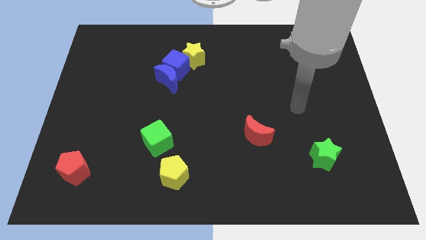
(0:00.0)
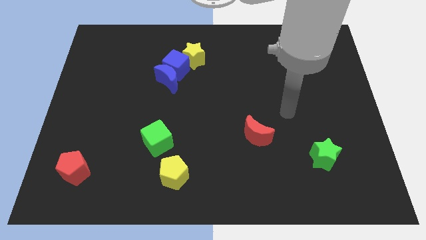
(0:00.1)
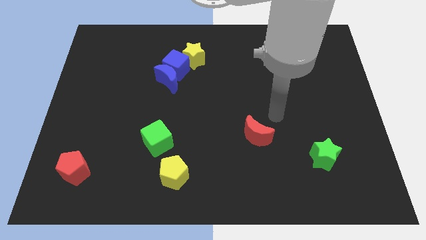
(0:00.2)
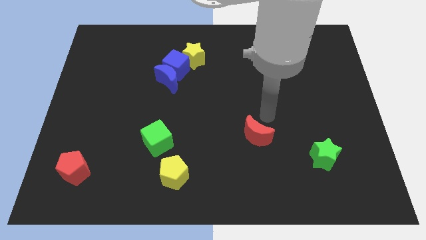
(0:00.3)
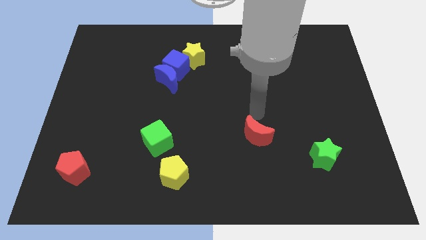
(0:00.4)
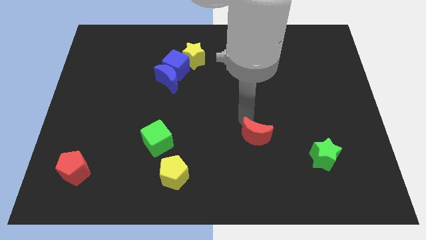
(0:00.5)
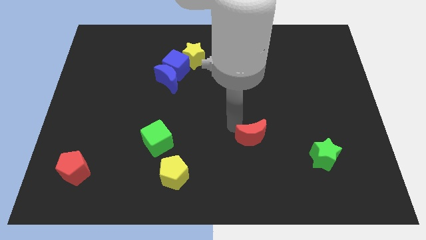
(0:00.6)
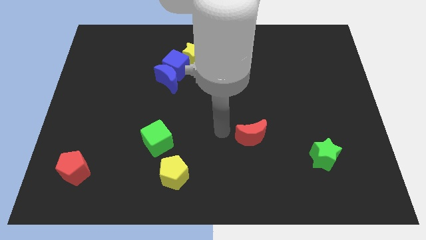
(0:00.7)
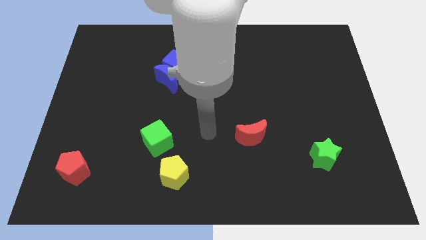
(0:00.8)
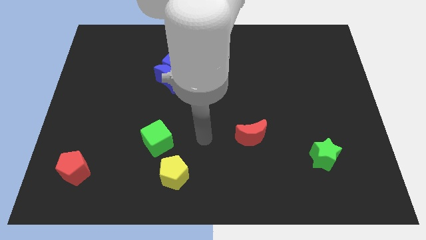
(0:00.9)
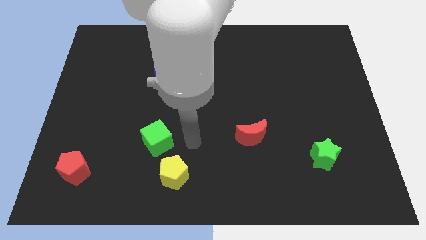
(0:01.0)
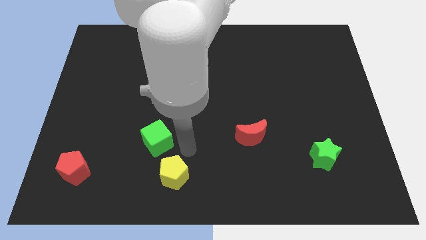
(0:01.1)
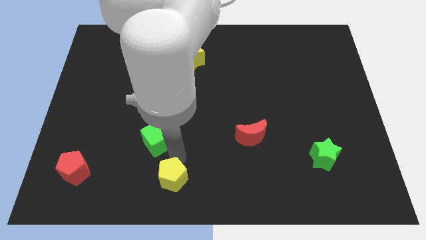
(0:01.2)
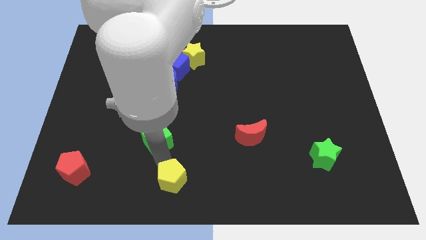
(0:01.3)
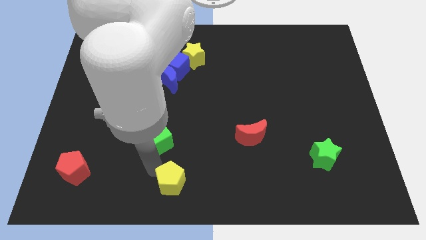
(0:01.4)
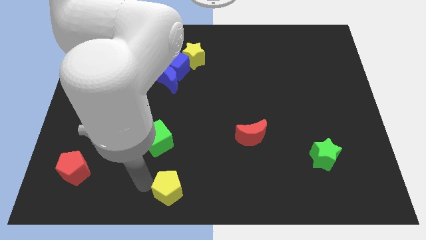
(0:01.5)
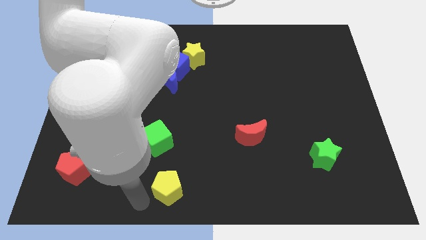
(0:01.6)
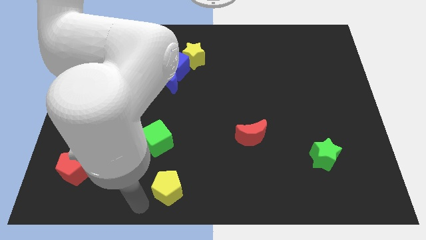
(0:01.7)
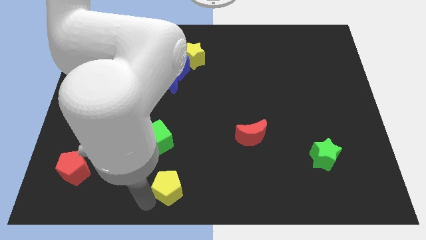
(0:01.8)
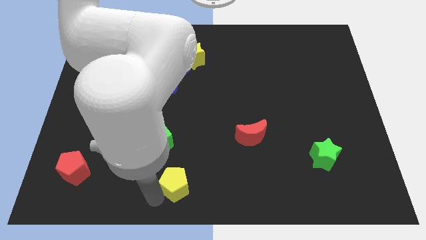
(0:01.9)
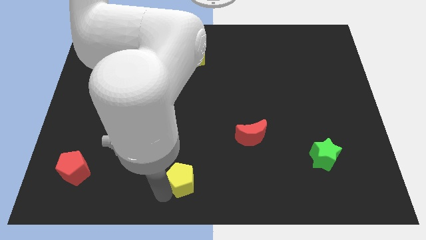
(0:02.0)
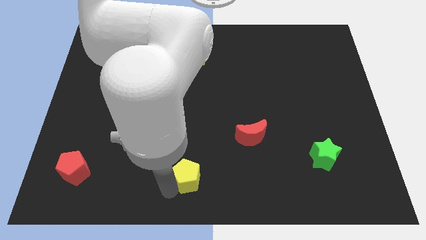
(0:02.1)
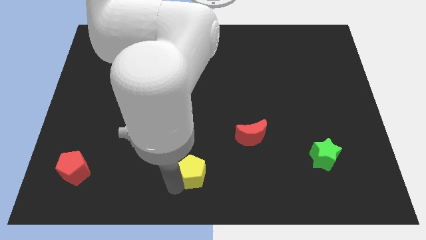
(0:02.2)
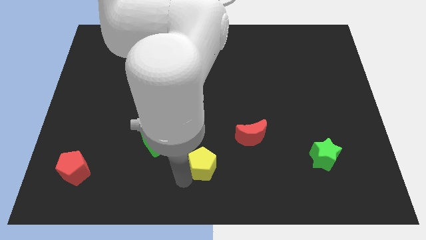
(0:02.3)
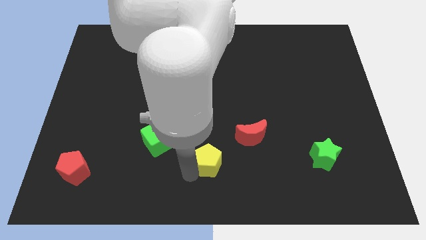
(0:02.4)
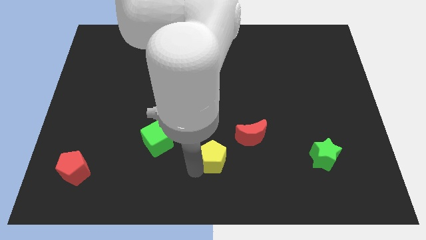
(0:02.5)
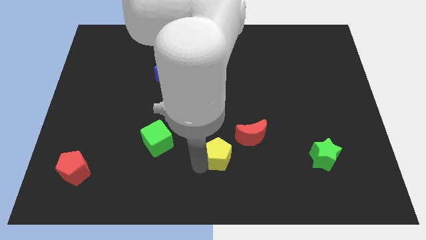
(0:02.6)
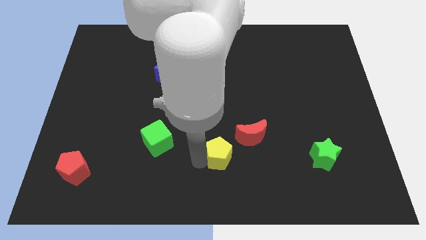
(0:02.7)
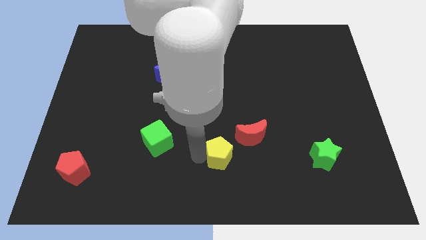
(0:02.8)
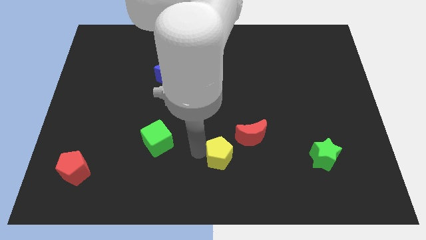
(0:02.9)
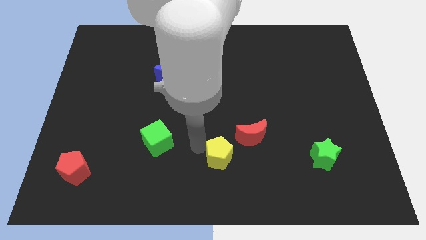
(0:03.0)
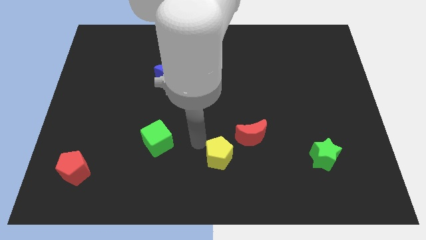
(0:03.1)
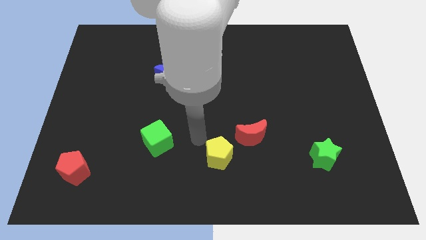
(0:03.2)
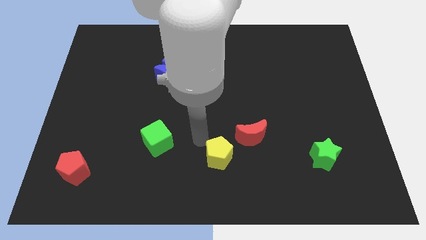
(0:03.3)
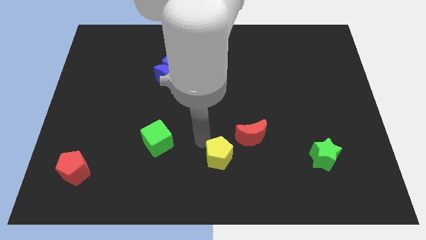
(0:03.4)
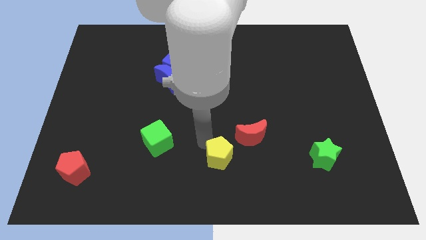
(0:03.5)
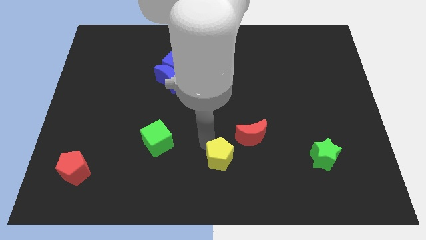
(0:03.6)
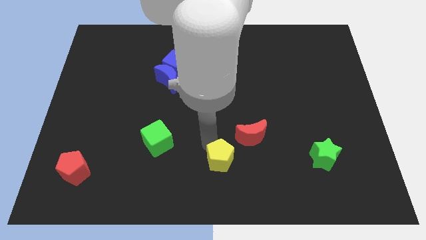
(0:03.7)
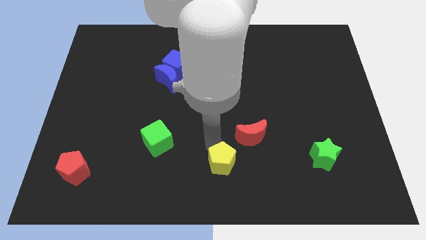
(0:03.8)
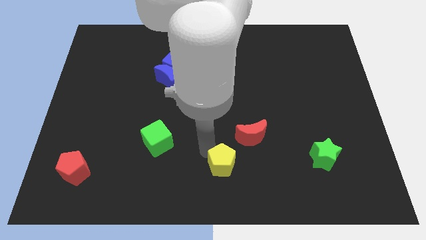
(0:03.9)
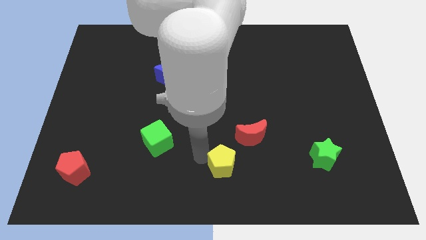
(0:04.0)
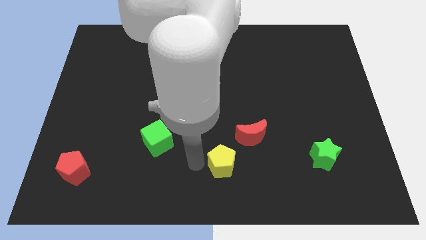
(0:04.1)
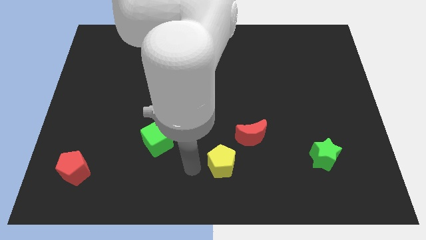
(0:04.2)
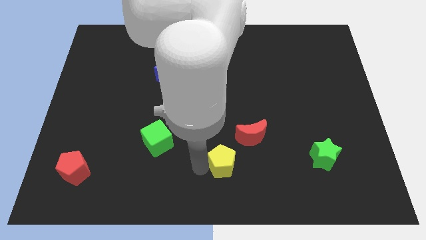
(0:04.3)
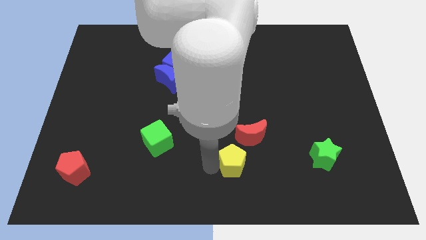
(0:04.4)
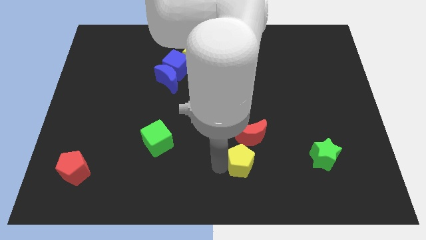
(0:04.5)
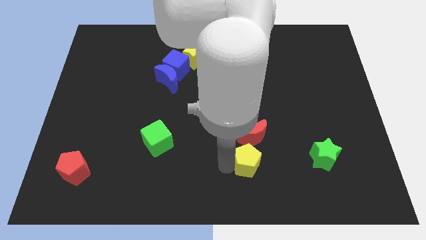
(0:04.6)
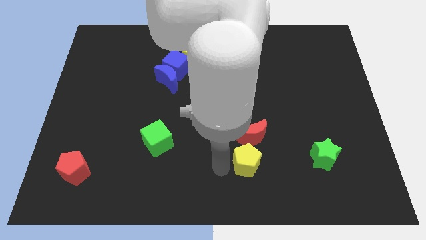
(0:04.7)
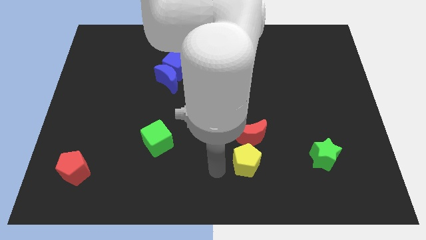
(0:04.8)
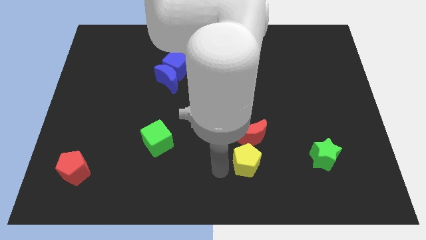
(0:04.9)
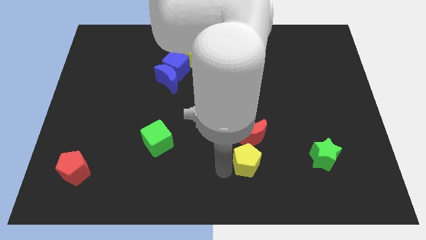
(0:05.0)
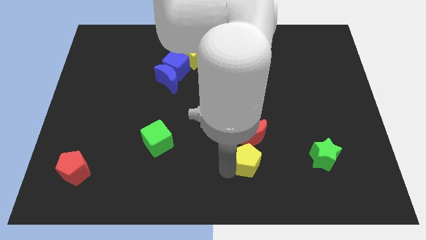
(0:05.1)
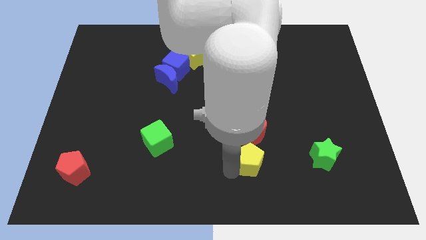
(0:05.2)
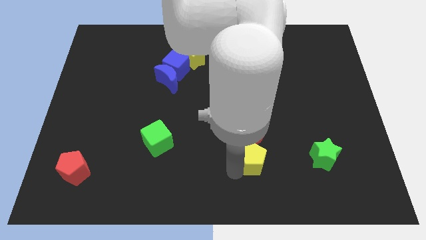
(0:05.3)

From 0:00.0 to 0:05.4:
slide the yellow pentagon diagonally down and to the right of the red moon

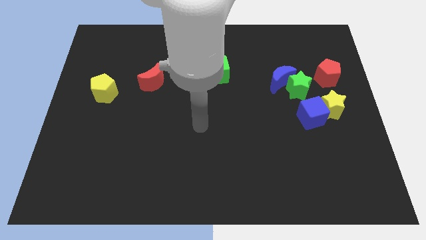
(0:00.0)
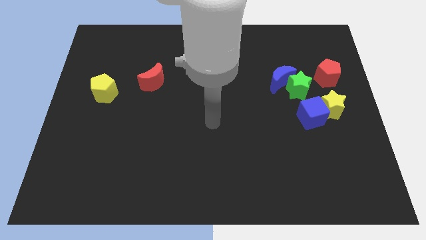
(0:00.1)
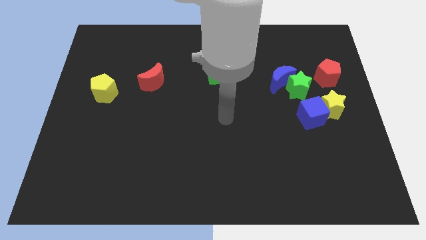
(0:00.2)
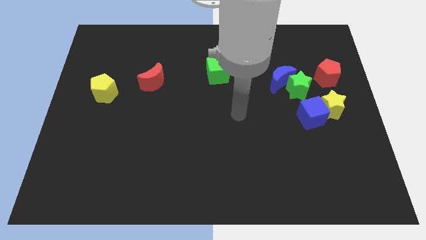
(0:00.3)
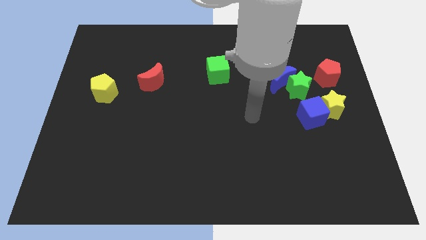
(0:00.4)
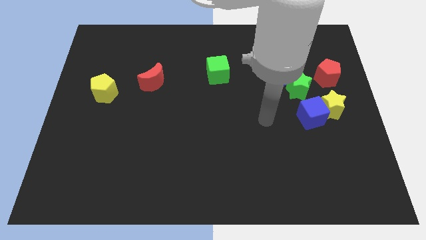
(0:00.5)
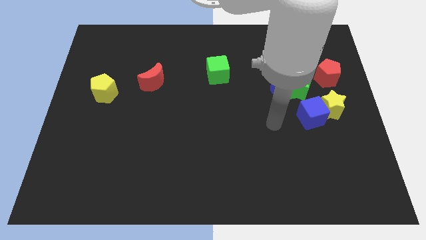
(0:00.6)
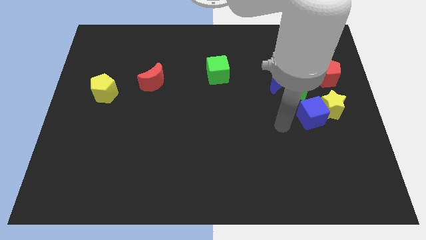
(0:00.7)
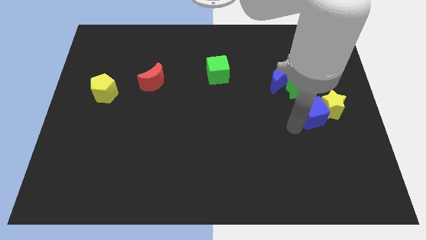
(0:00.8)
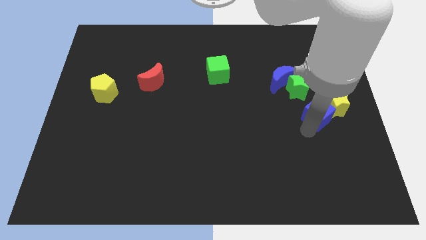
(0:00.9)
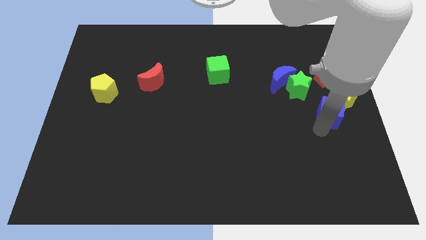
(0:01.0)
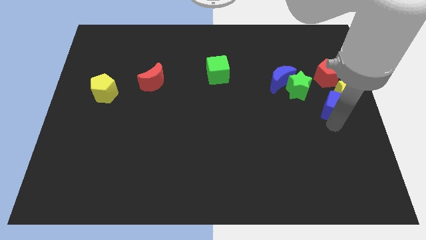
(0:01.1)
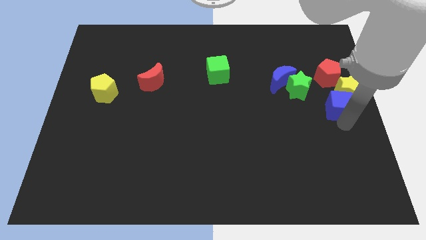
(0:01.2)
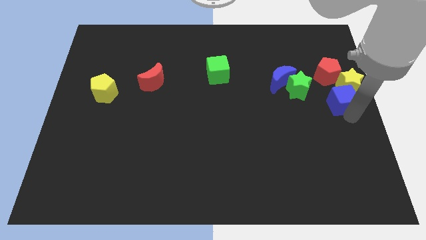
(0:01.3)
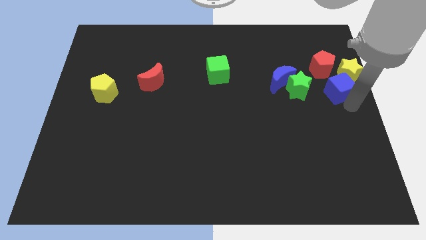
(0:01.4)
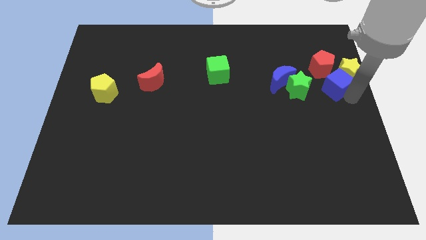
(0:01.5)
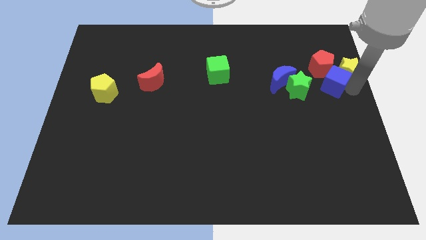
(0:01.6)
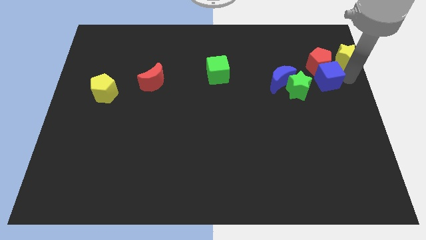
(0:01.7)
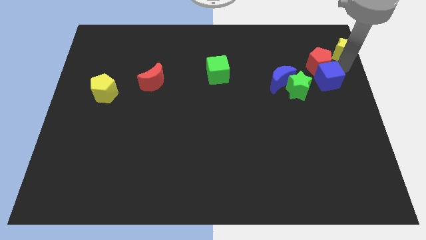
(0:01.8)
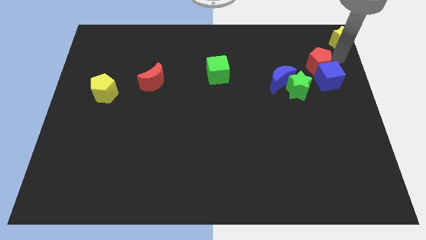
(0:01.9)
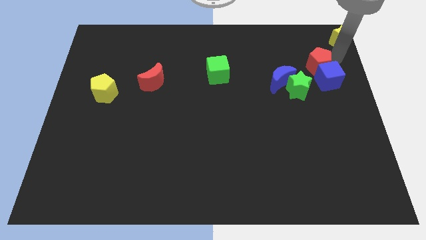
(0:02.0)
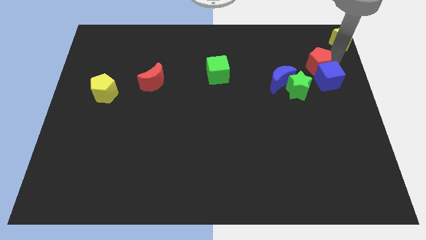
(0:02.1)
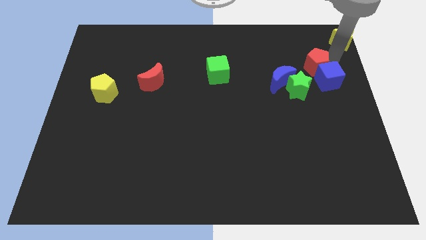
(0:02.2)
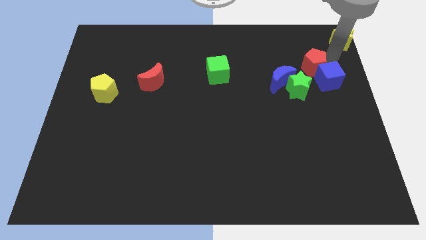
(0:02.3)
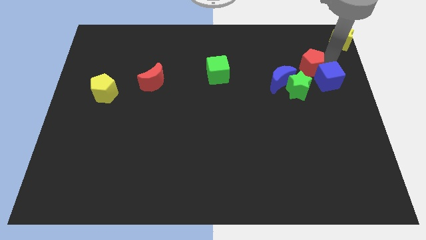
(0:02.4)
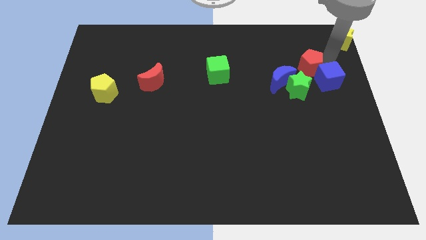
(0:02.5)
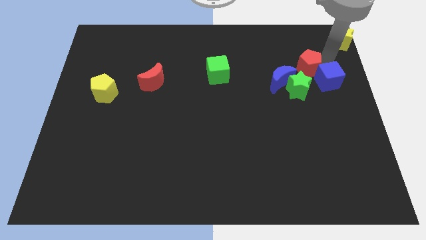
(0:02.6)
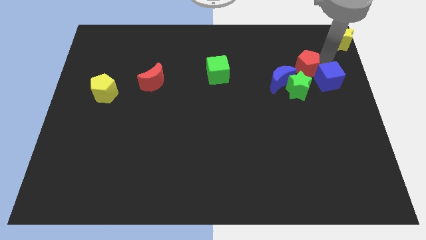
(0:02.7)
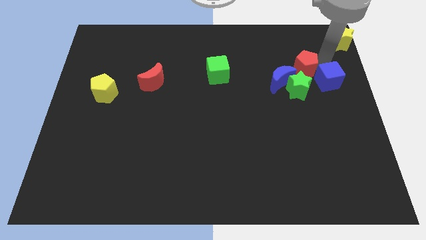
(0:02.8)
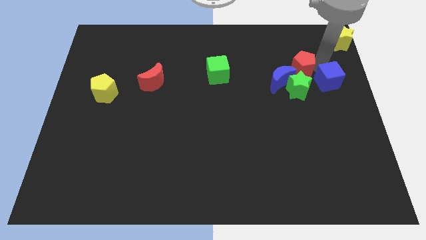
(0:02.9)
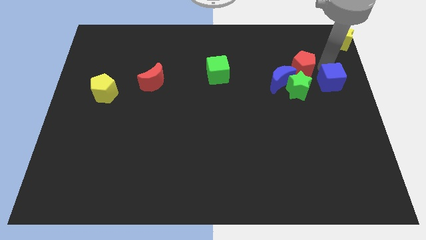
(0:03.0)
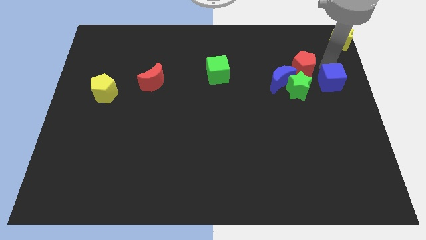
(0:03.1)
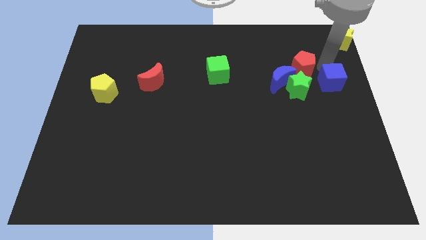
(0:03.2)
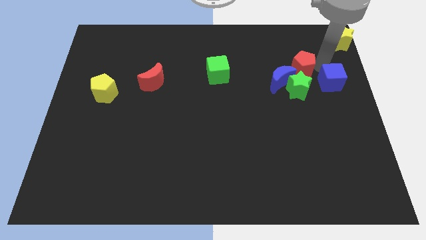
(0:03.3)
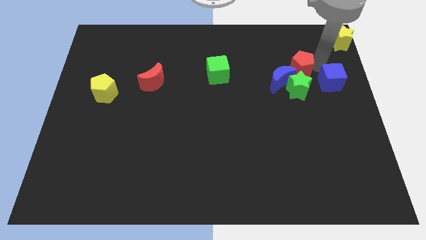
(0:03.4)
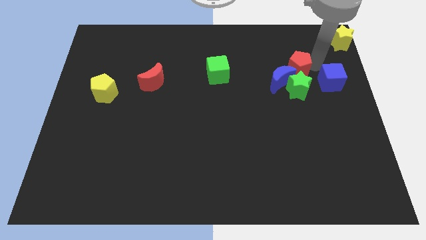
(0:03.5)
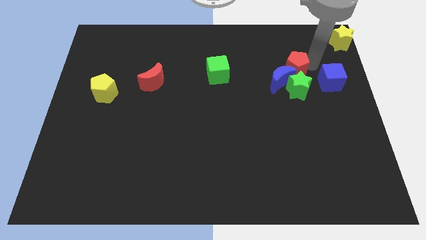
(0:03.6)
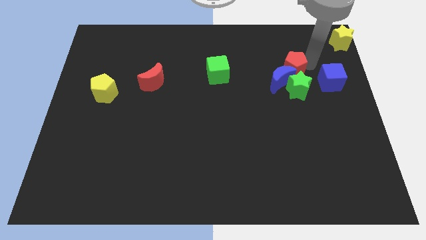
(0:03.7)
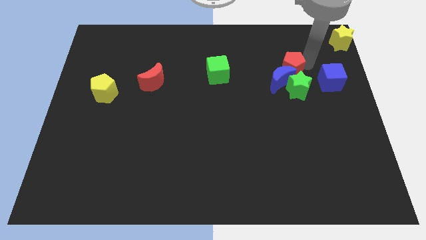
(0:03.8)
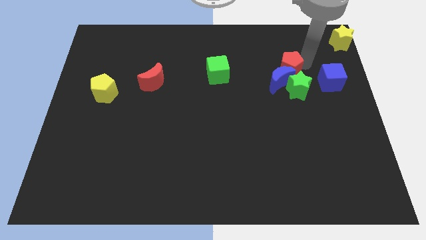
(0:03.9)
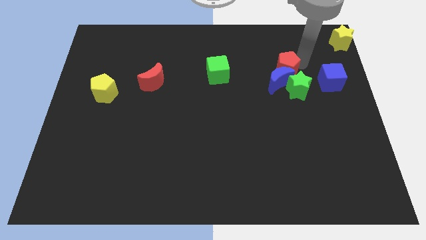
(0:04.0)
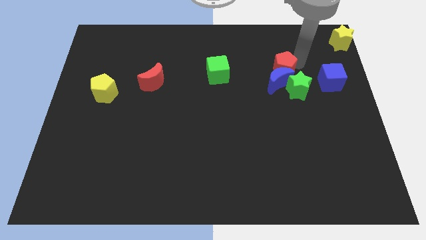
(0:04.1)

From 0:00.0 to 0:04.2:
put the red pentagon diagonally up and to the left of the blue moon
